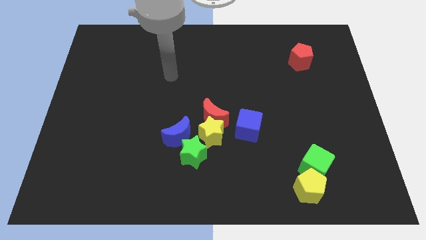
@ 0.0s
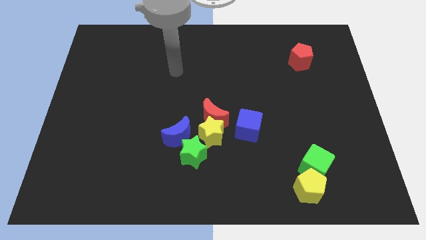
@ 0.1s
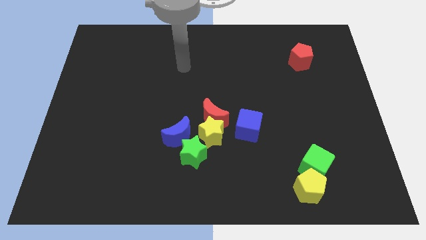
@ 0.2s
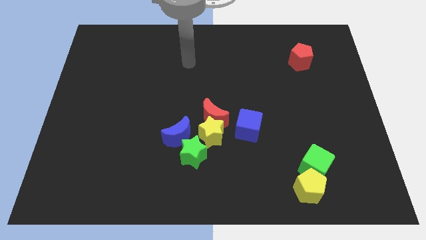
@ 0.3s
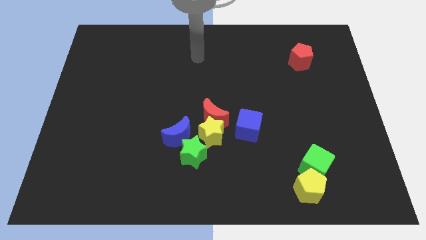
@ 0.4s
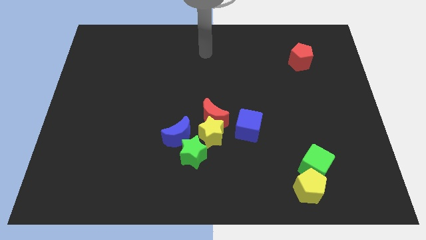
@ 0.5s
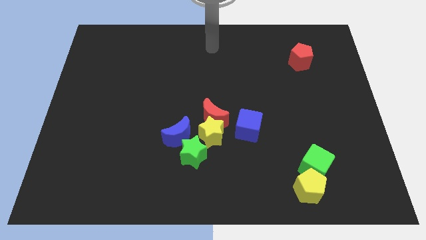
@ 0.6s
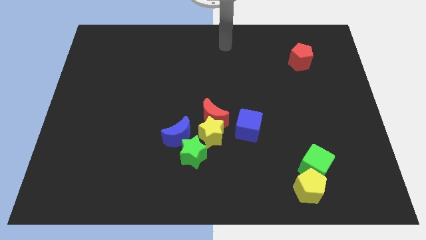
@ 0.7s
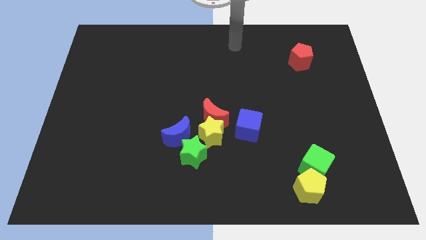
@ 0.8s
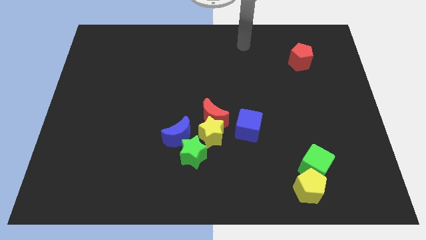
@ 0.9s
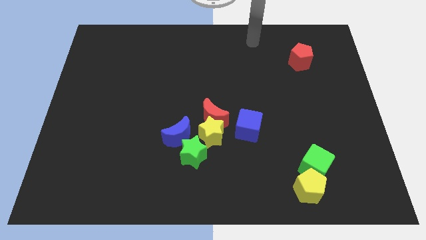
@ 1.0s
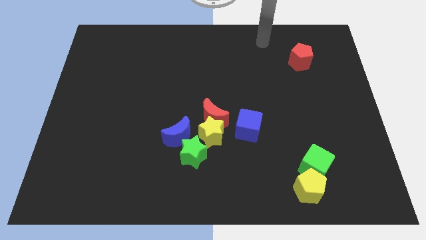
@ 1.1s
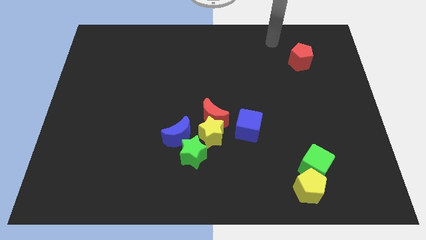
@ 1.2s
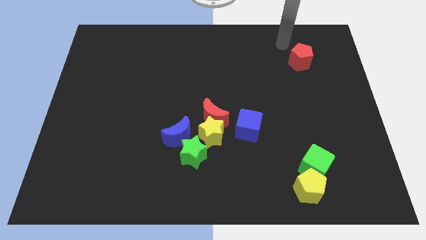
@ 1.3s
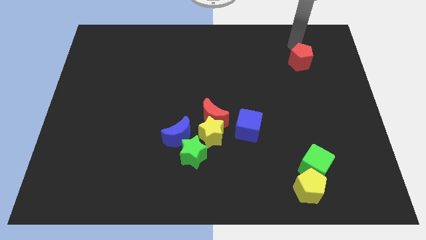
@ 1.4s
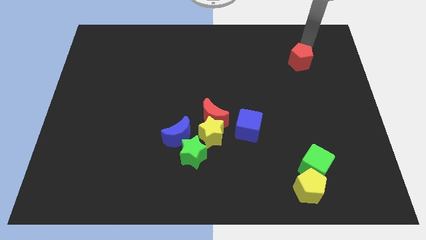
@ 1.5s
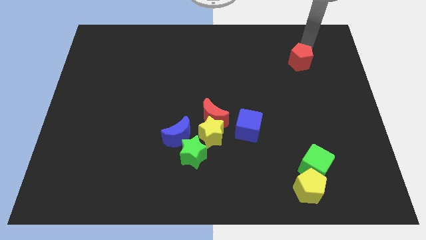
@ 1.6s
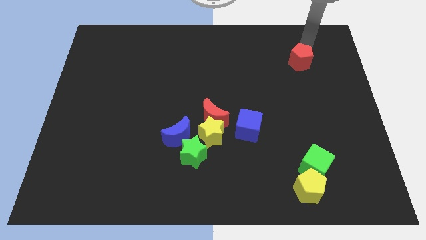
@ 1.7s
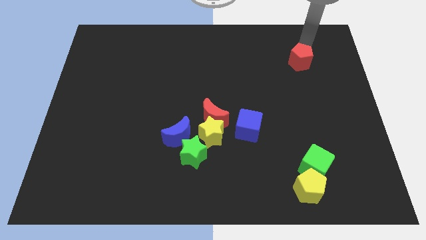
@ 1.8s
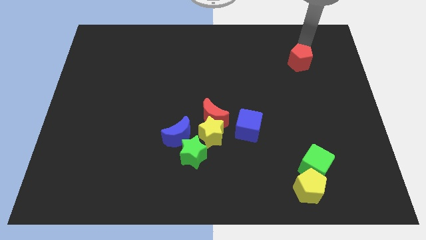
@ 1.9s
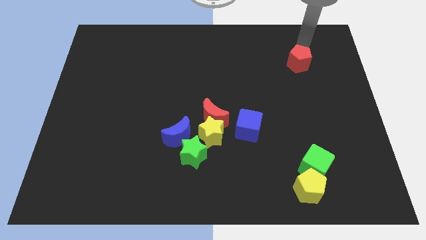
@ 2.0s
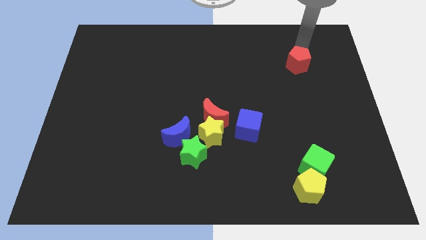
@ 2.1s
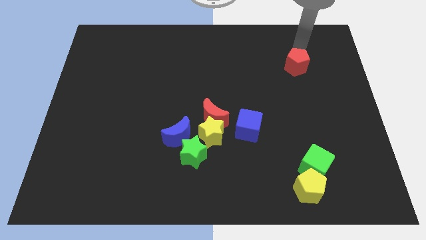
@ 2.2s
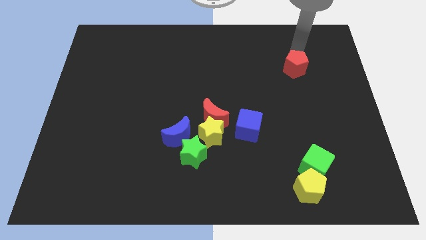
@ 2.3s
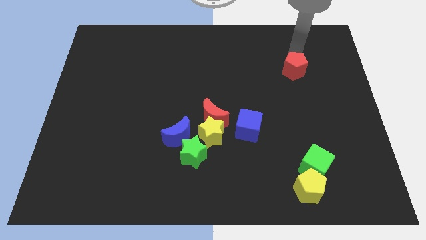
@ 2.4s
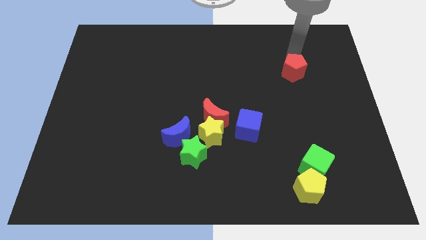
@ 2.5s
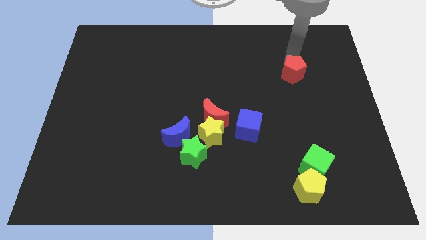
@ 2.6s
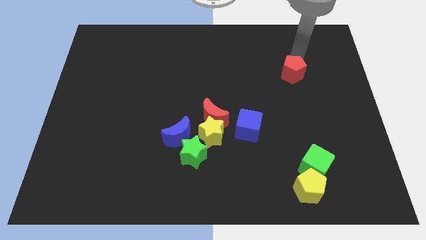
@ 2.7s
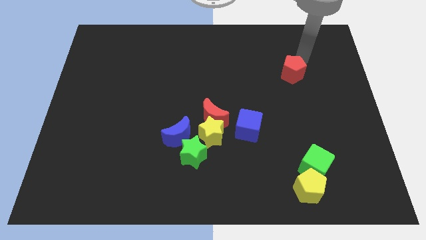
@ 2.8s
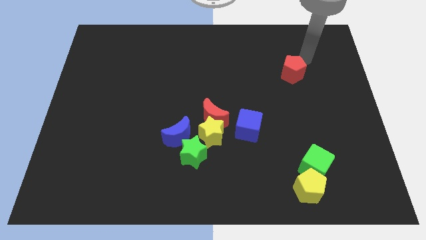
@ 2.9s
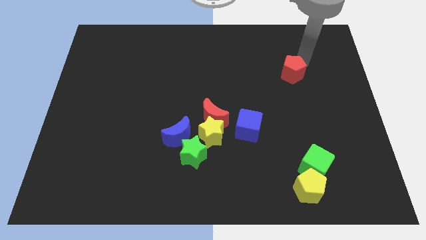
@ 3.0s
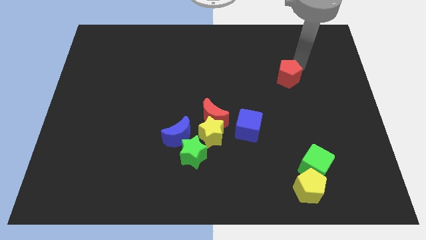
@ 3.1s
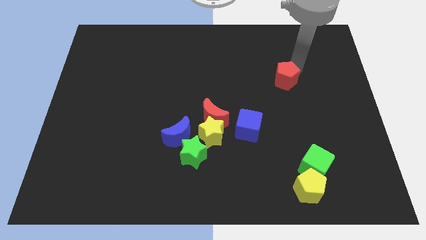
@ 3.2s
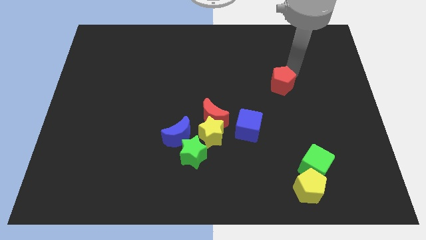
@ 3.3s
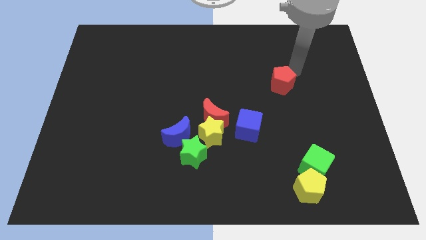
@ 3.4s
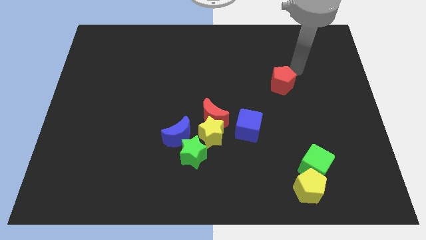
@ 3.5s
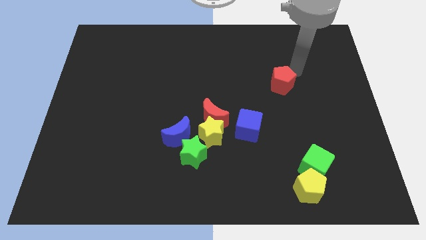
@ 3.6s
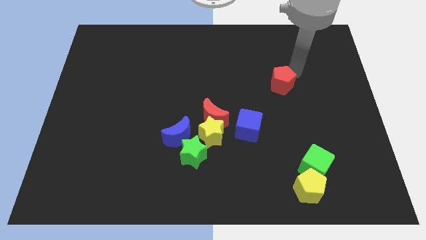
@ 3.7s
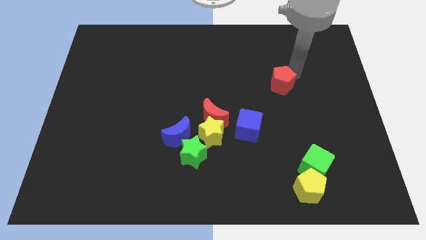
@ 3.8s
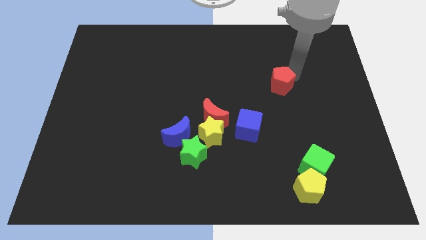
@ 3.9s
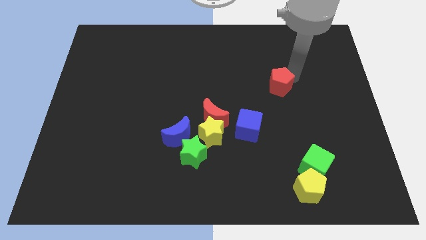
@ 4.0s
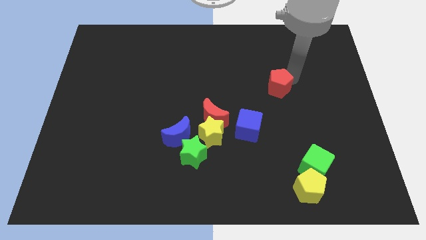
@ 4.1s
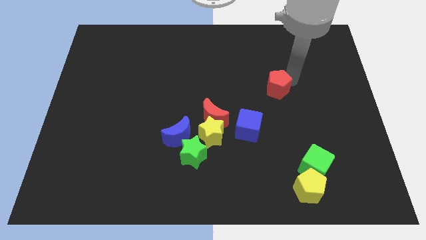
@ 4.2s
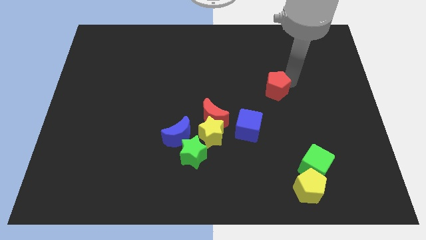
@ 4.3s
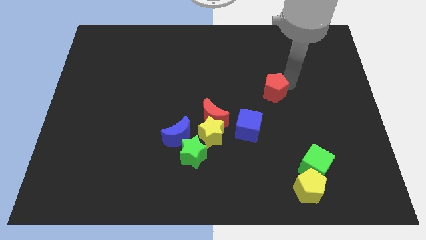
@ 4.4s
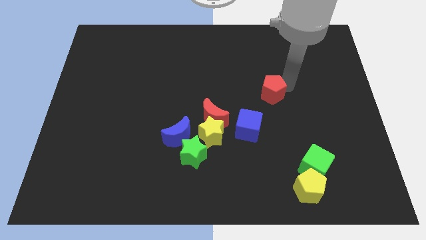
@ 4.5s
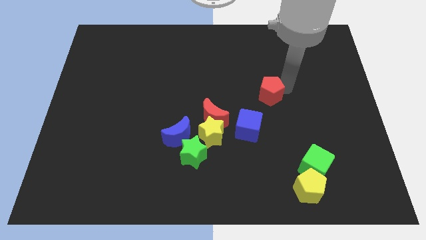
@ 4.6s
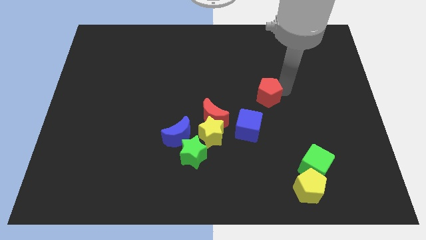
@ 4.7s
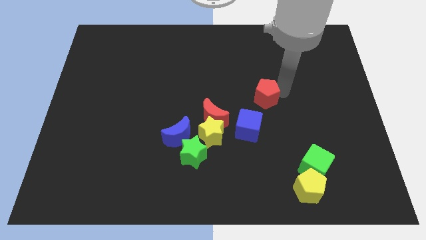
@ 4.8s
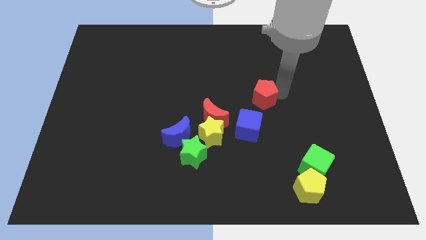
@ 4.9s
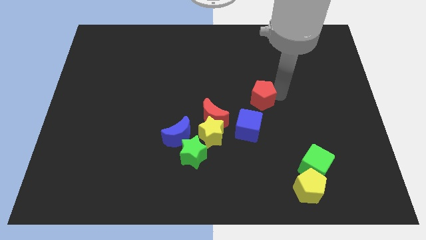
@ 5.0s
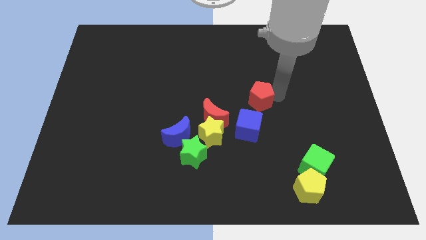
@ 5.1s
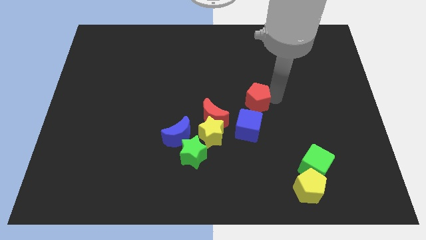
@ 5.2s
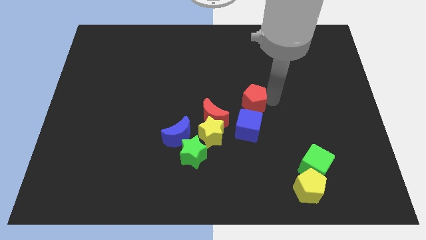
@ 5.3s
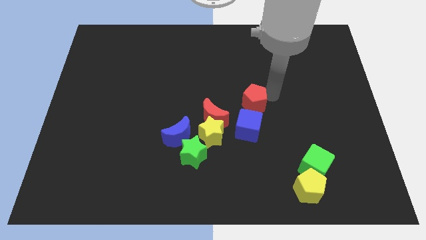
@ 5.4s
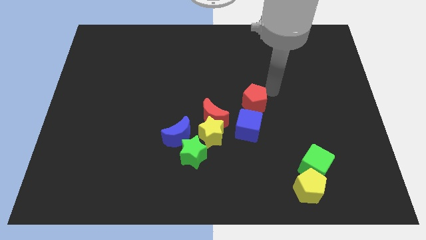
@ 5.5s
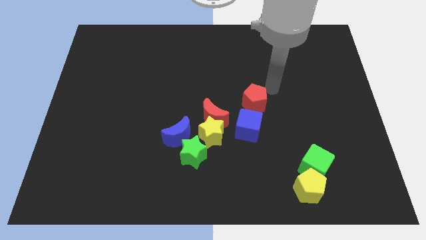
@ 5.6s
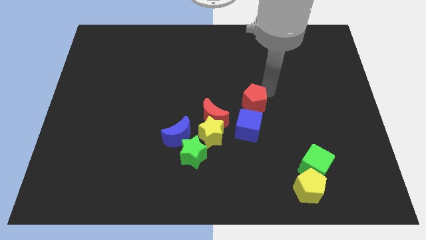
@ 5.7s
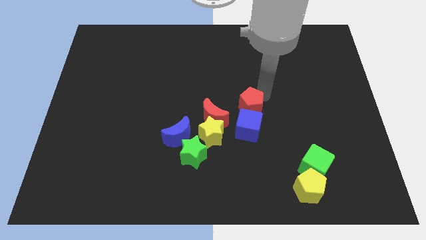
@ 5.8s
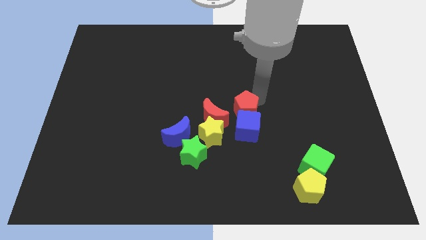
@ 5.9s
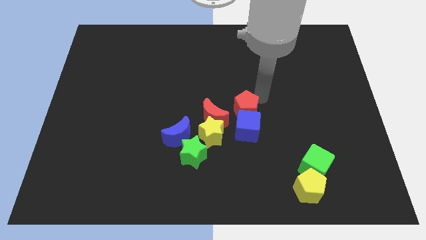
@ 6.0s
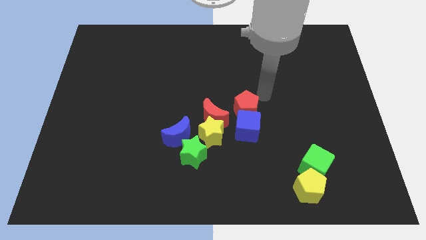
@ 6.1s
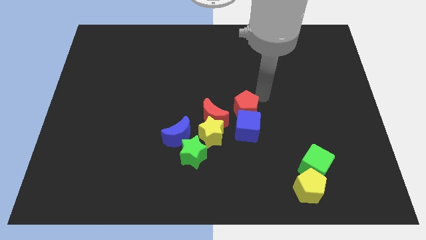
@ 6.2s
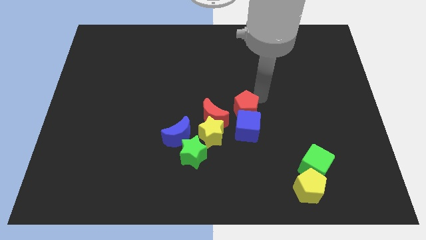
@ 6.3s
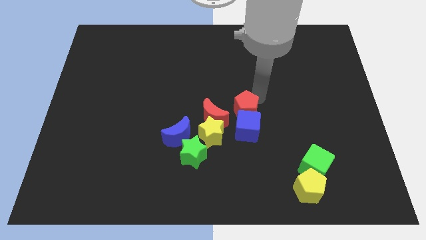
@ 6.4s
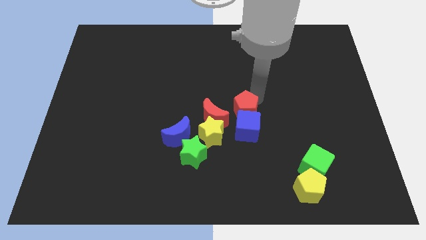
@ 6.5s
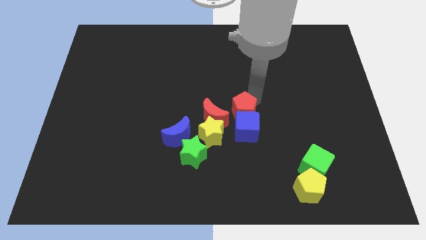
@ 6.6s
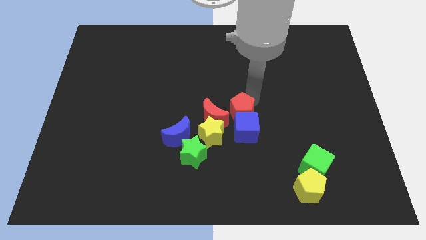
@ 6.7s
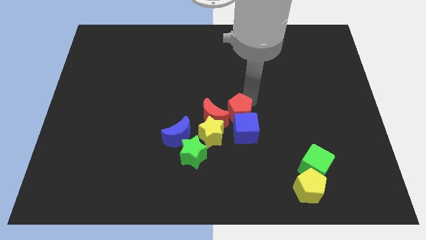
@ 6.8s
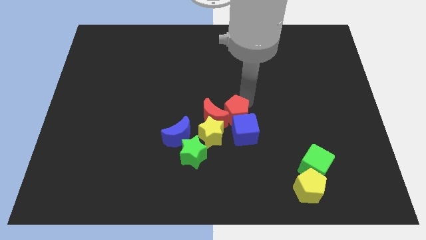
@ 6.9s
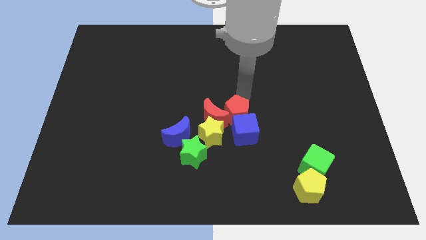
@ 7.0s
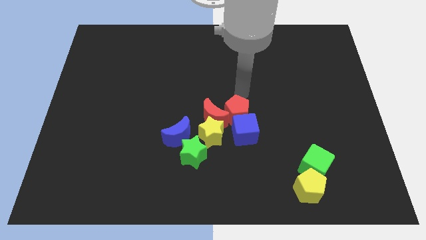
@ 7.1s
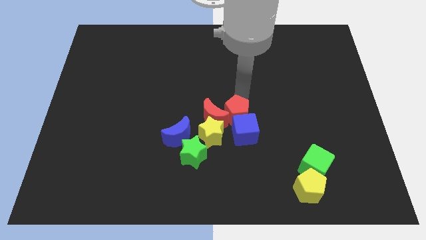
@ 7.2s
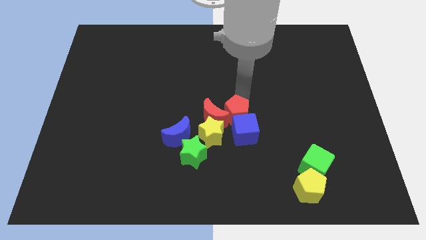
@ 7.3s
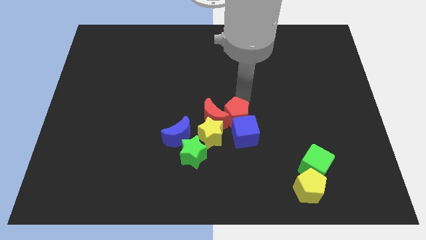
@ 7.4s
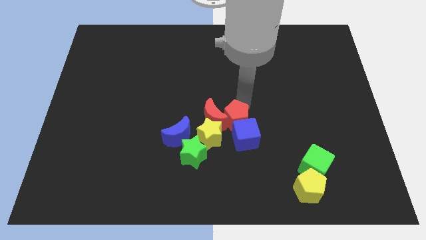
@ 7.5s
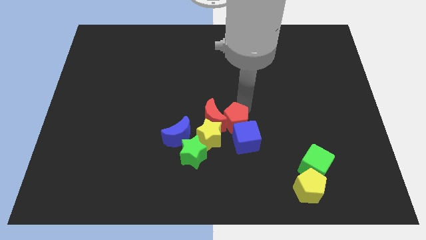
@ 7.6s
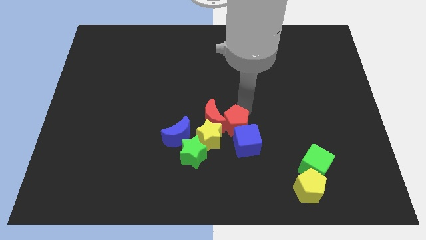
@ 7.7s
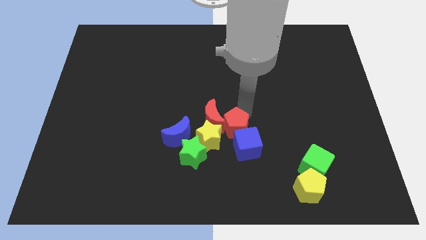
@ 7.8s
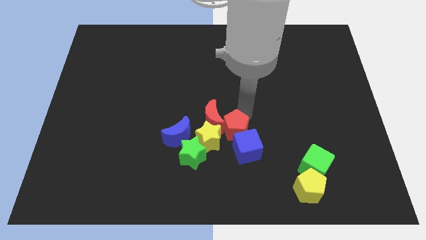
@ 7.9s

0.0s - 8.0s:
put the red pentagon close to the yellow star
